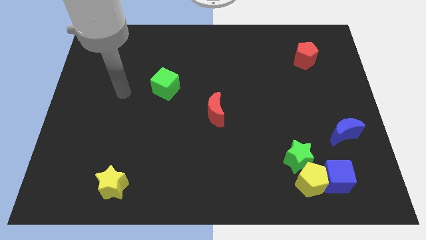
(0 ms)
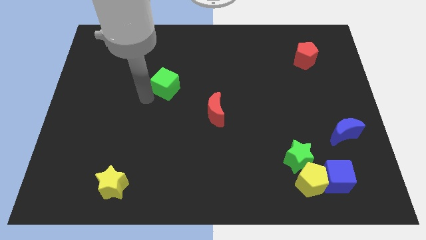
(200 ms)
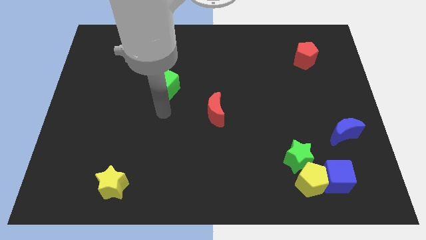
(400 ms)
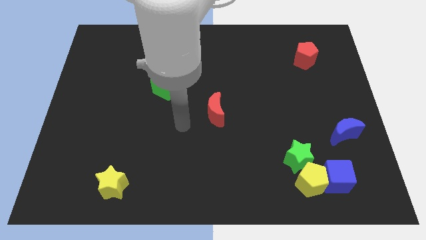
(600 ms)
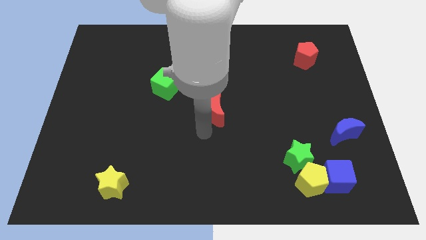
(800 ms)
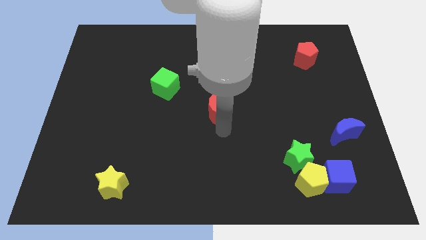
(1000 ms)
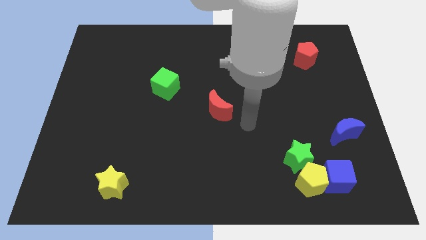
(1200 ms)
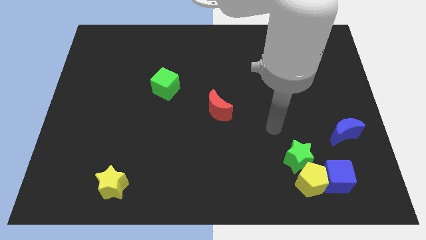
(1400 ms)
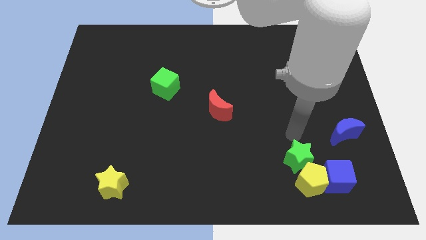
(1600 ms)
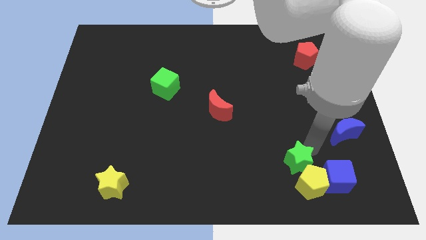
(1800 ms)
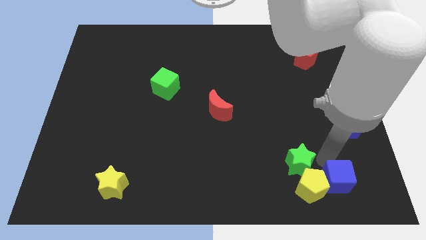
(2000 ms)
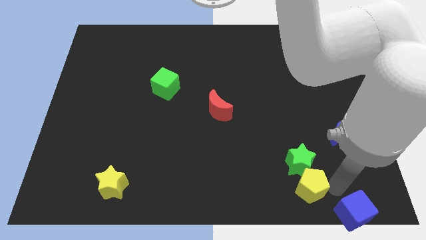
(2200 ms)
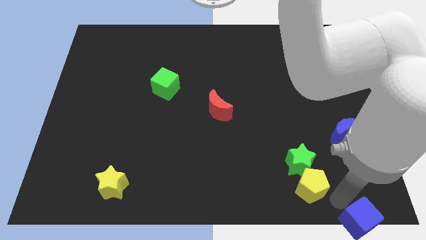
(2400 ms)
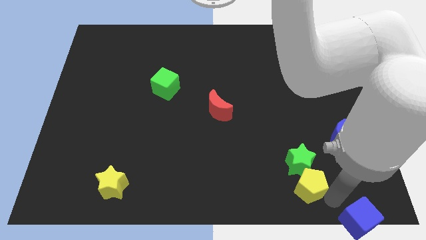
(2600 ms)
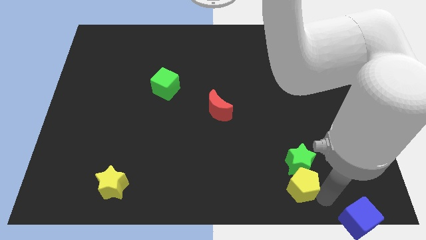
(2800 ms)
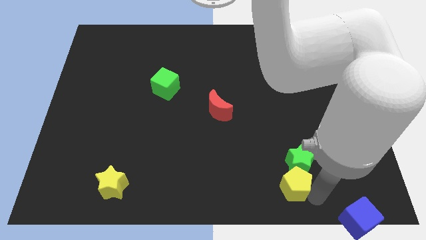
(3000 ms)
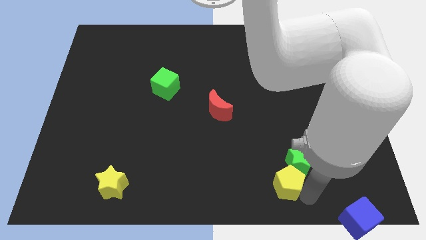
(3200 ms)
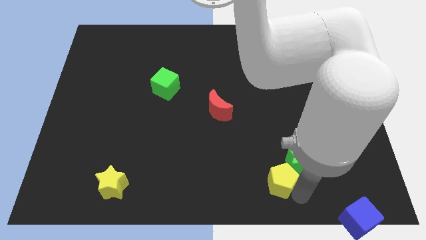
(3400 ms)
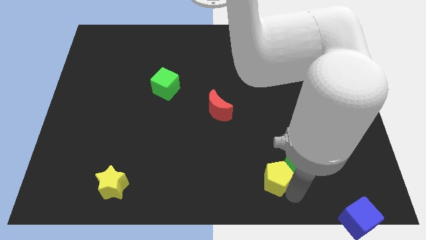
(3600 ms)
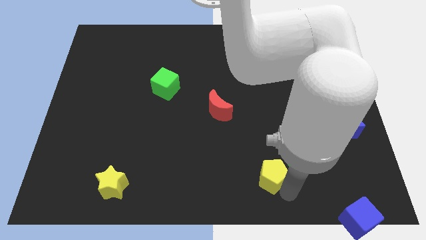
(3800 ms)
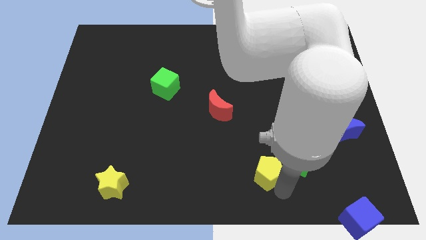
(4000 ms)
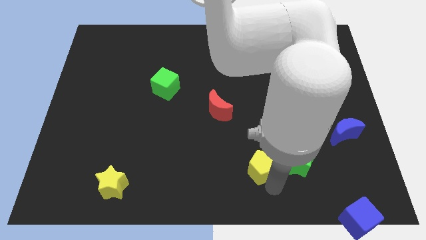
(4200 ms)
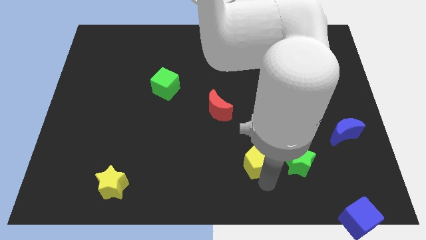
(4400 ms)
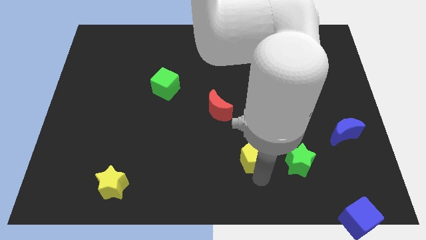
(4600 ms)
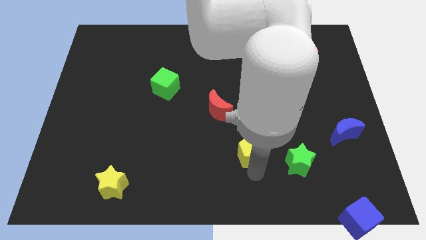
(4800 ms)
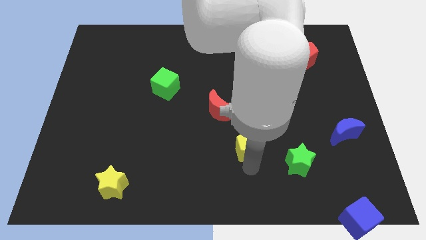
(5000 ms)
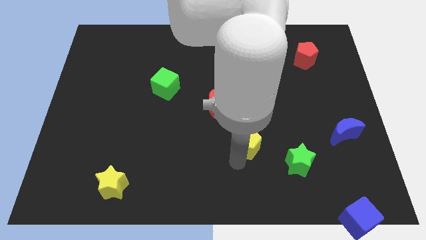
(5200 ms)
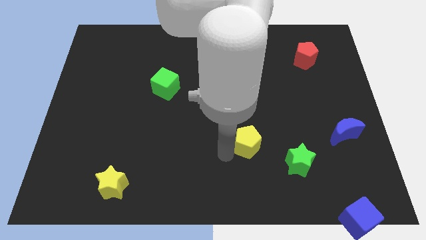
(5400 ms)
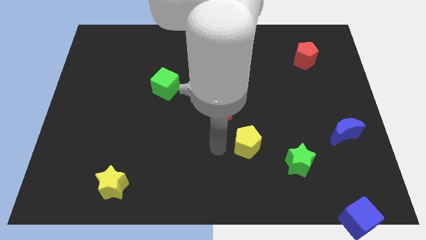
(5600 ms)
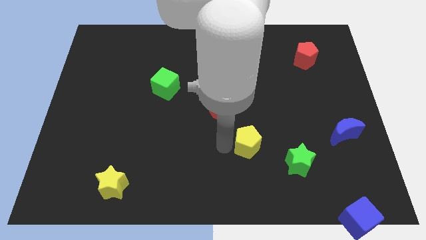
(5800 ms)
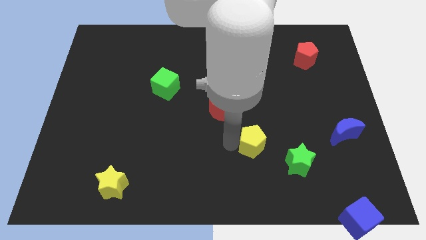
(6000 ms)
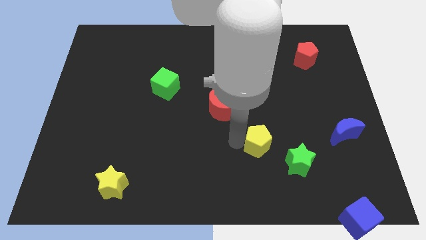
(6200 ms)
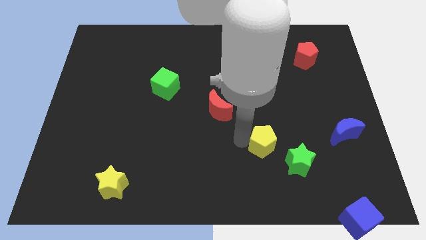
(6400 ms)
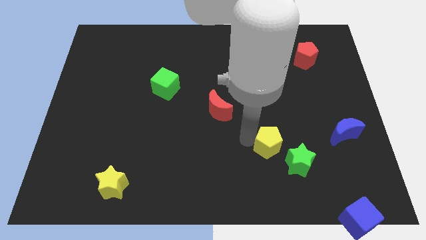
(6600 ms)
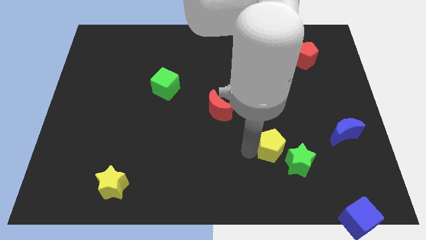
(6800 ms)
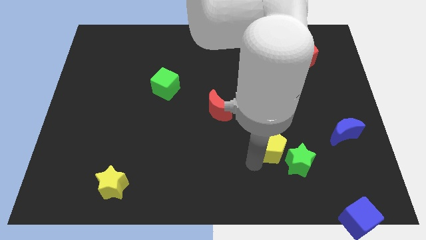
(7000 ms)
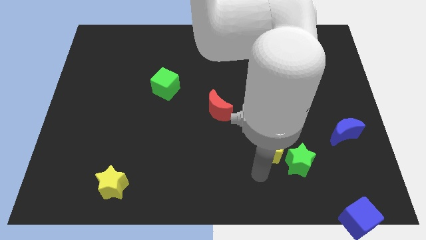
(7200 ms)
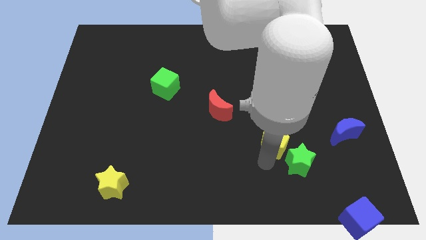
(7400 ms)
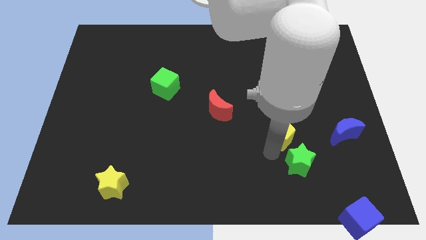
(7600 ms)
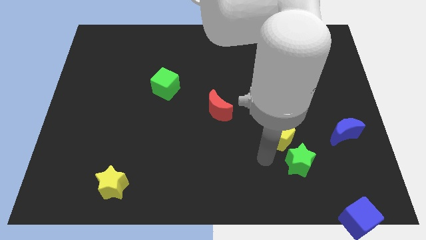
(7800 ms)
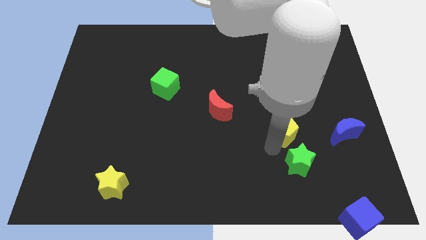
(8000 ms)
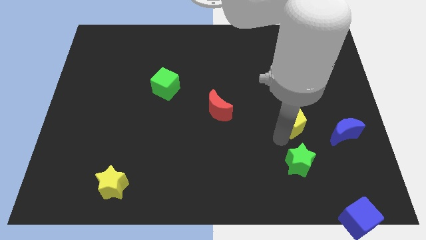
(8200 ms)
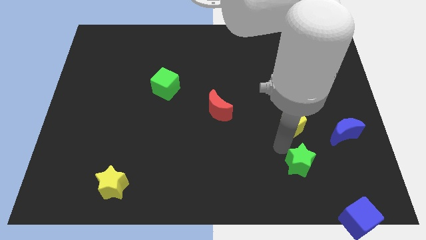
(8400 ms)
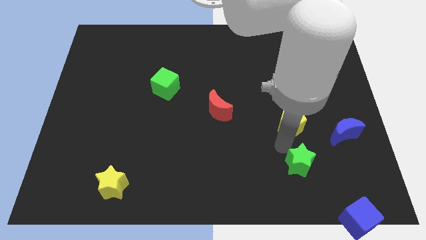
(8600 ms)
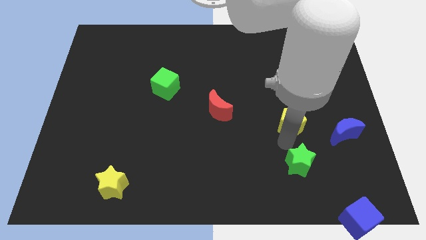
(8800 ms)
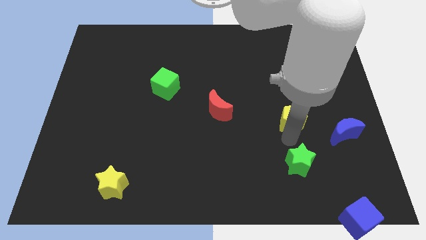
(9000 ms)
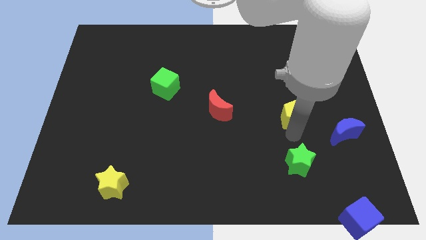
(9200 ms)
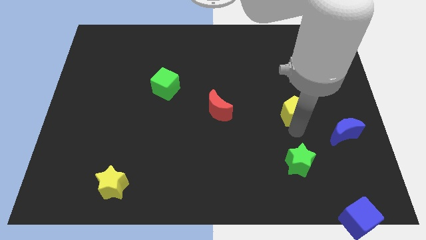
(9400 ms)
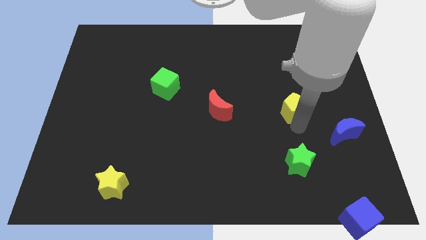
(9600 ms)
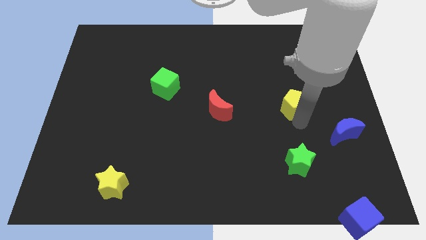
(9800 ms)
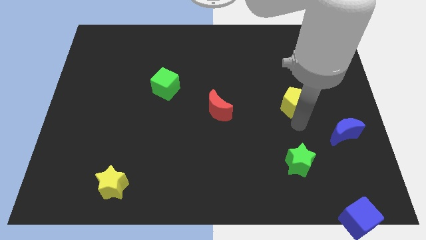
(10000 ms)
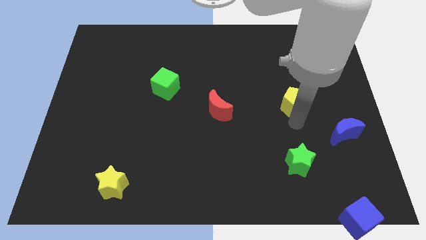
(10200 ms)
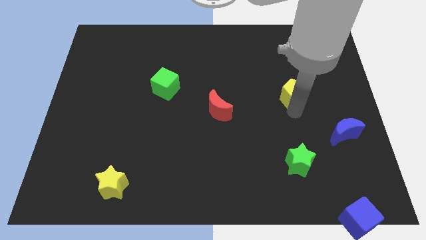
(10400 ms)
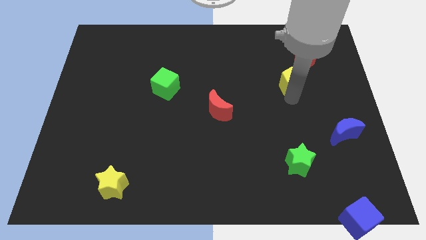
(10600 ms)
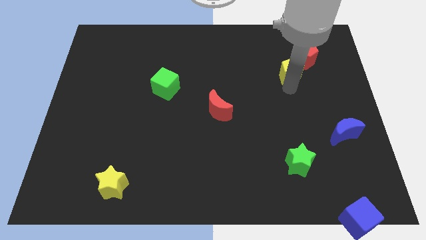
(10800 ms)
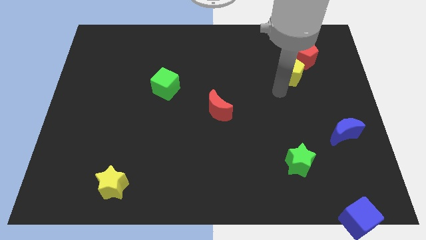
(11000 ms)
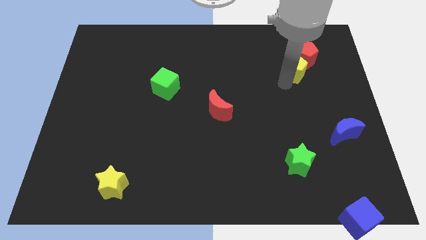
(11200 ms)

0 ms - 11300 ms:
move the yellow pentagon close to the red pentagon

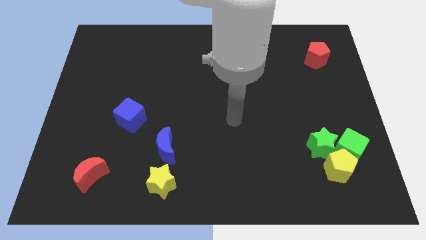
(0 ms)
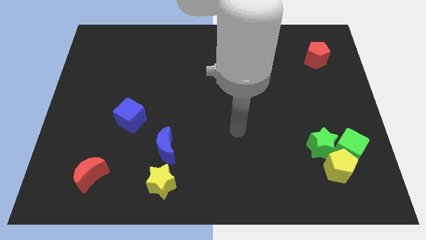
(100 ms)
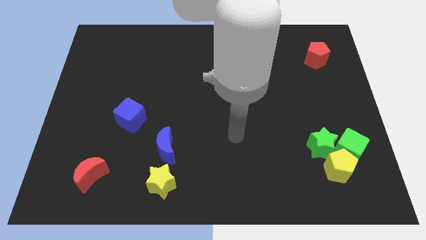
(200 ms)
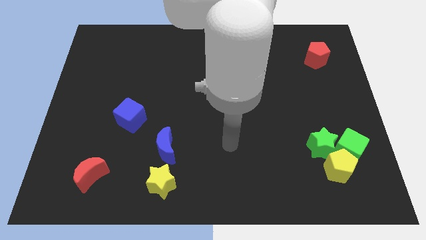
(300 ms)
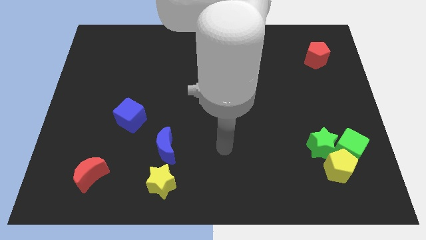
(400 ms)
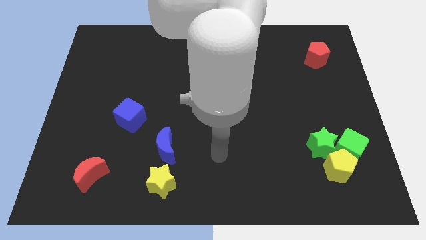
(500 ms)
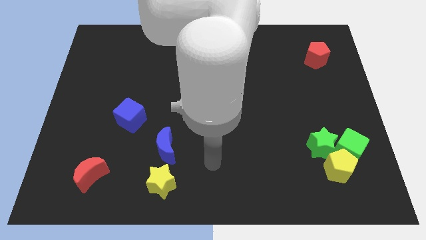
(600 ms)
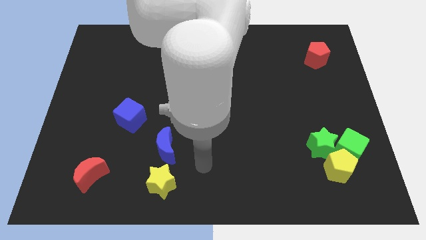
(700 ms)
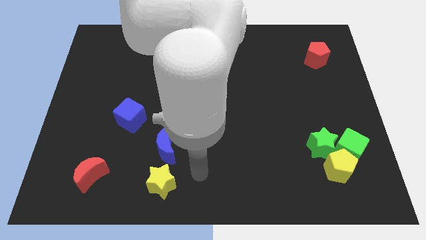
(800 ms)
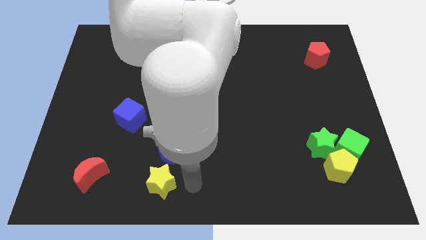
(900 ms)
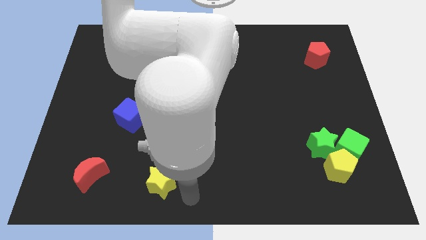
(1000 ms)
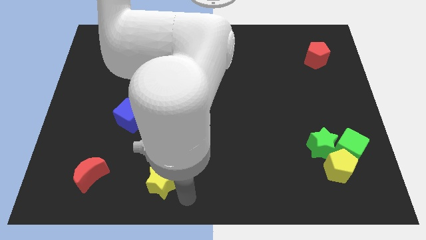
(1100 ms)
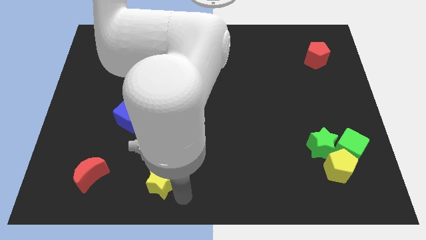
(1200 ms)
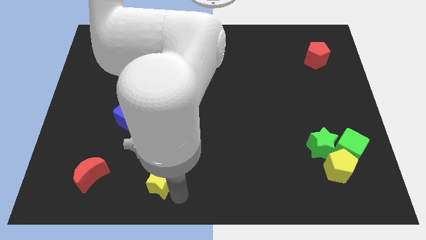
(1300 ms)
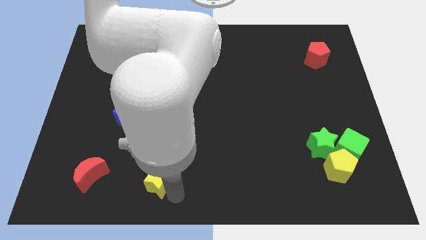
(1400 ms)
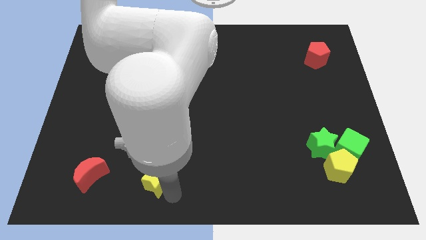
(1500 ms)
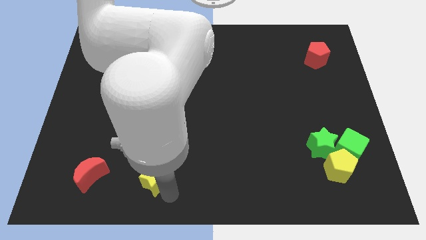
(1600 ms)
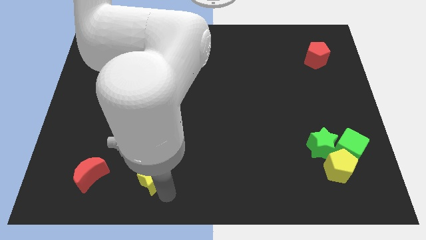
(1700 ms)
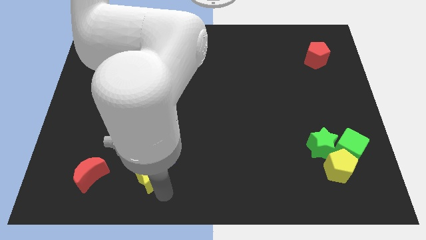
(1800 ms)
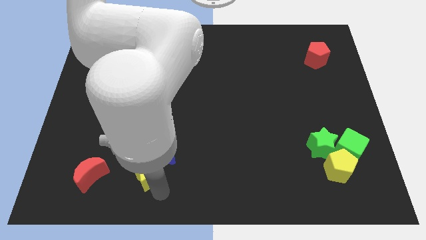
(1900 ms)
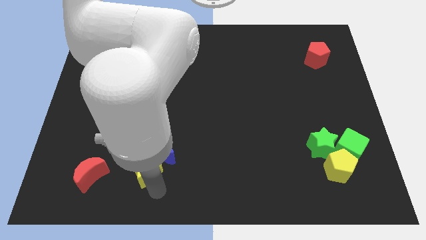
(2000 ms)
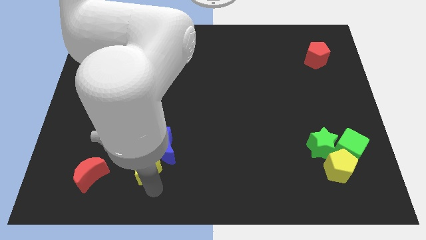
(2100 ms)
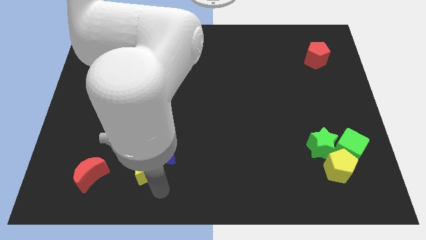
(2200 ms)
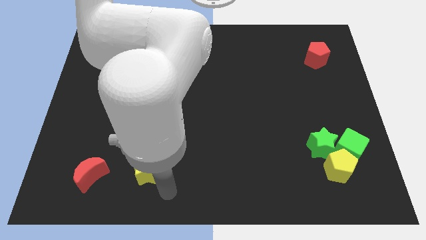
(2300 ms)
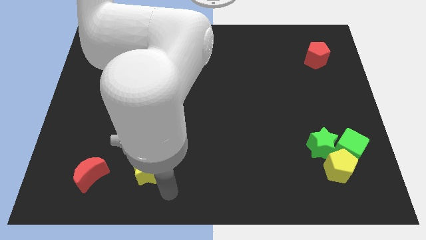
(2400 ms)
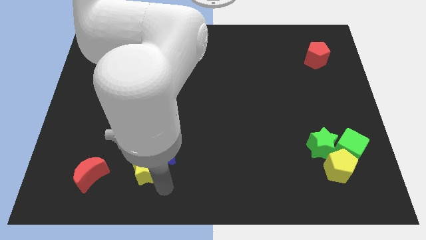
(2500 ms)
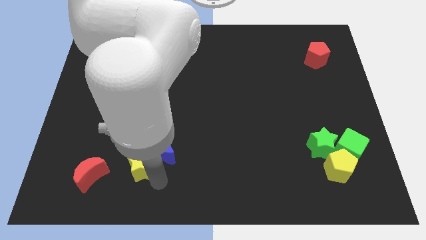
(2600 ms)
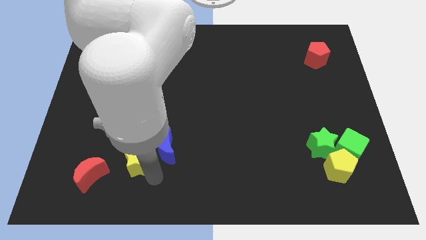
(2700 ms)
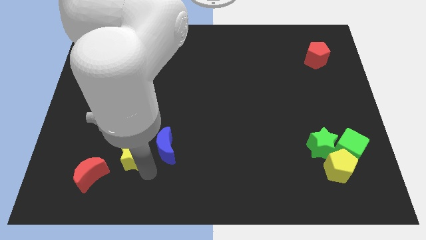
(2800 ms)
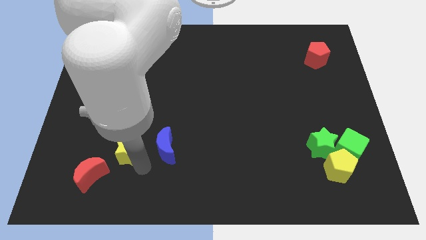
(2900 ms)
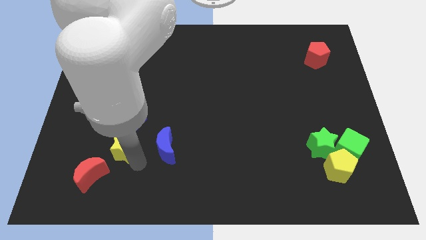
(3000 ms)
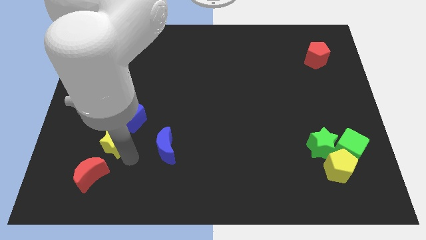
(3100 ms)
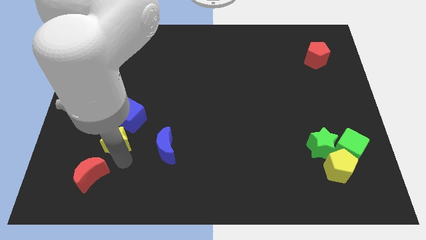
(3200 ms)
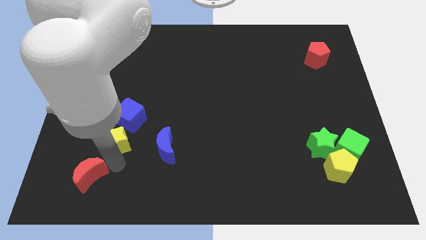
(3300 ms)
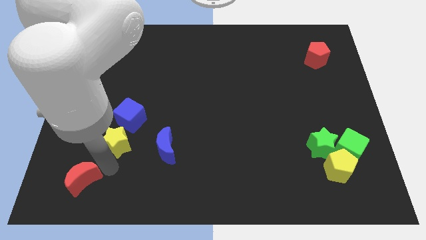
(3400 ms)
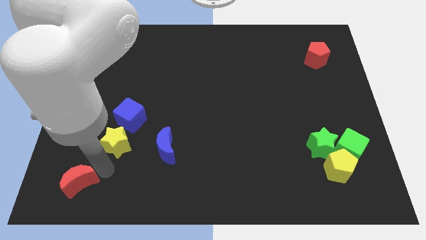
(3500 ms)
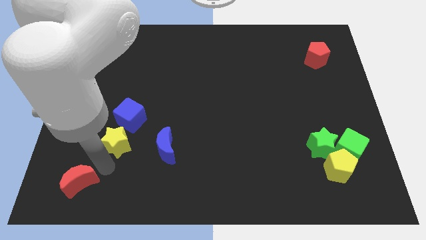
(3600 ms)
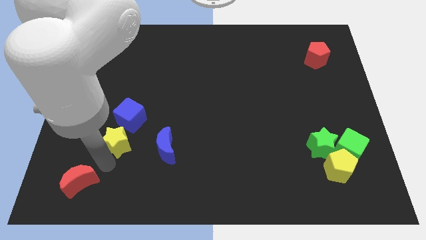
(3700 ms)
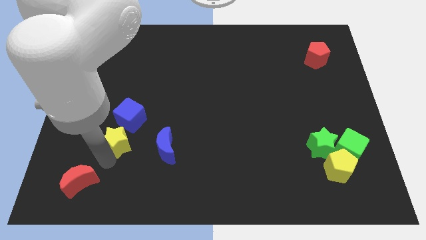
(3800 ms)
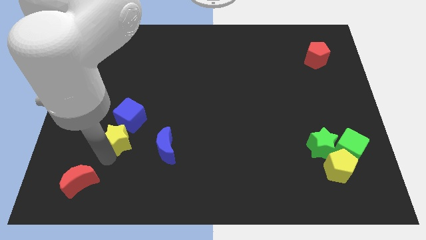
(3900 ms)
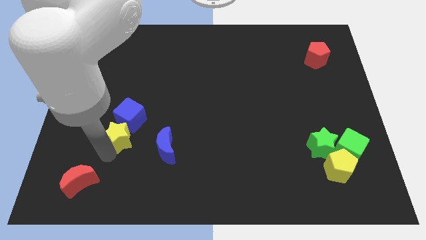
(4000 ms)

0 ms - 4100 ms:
slide the yellow star towards the blue cube
